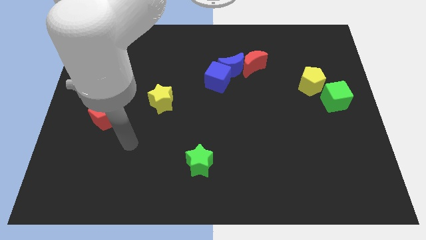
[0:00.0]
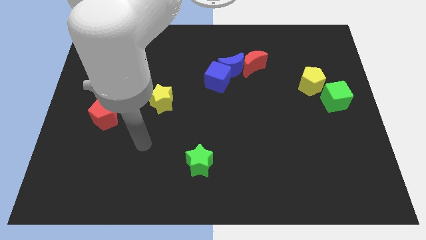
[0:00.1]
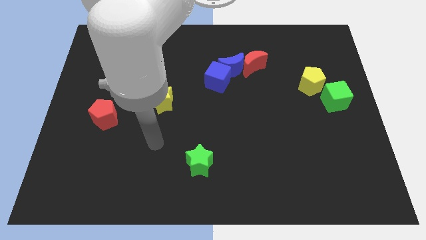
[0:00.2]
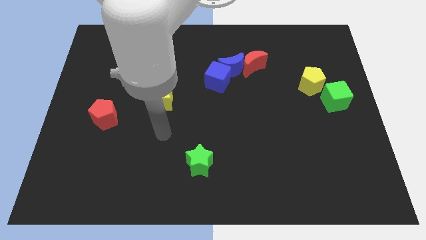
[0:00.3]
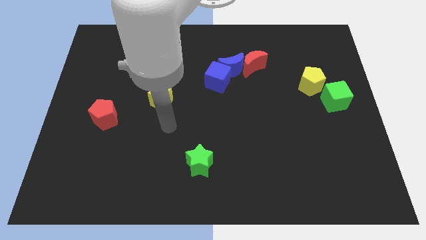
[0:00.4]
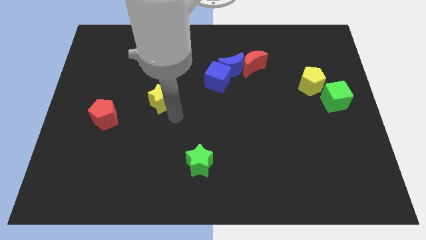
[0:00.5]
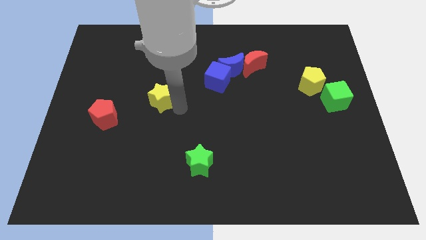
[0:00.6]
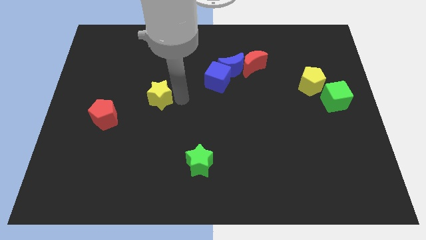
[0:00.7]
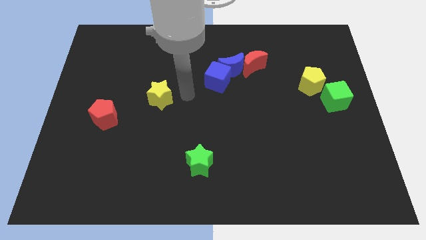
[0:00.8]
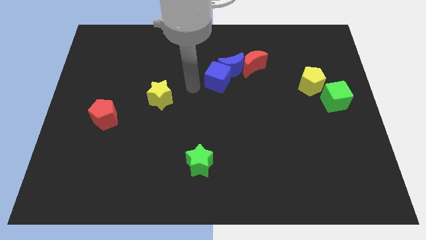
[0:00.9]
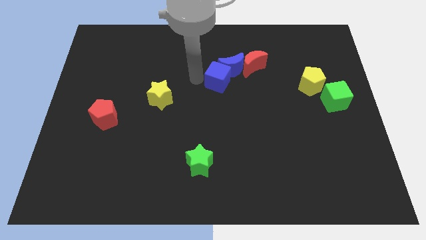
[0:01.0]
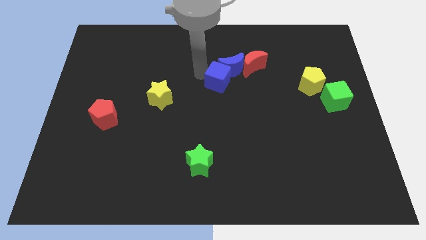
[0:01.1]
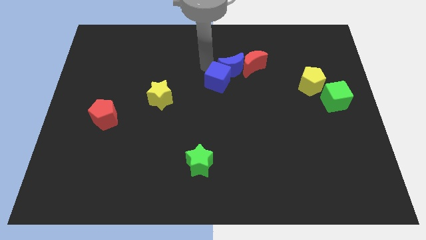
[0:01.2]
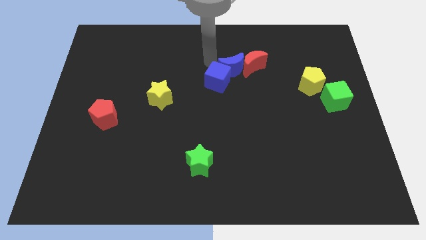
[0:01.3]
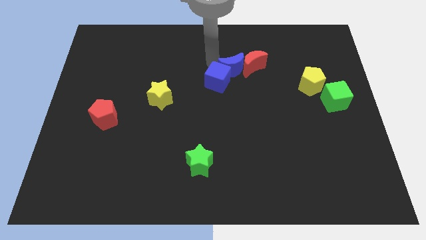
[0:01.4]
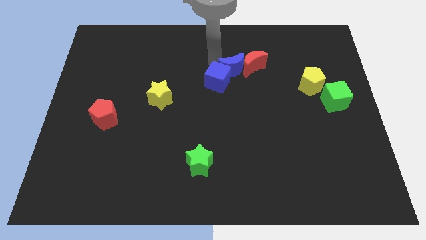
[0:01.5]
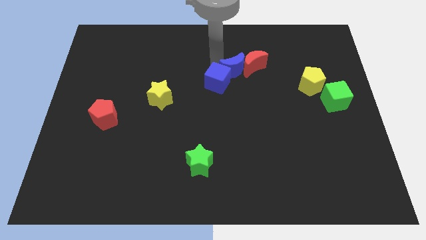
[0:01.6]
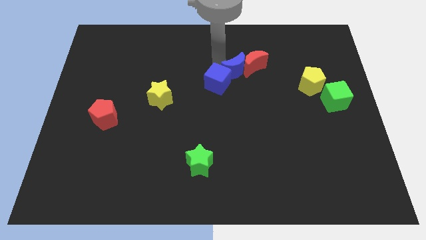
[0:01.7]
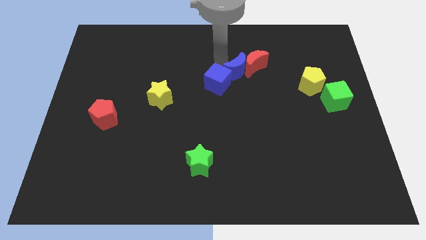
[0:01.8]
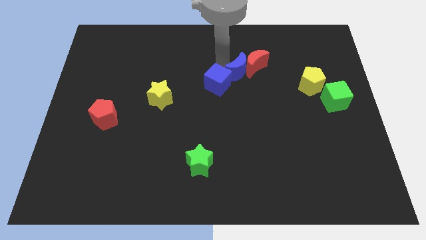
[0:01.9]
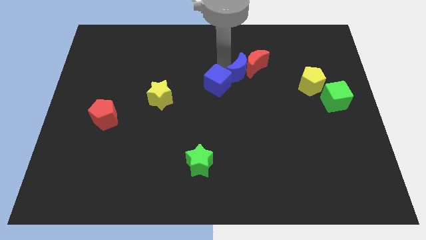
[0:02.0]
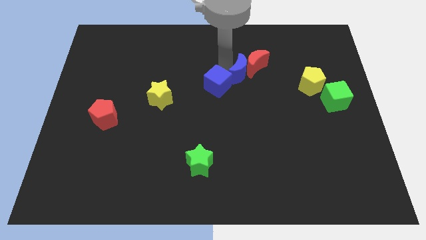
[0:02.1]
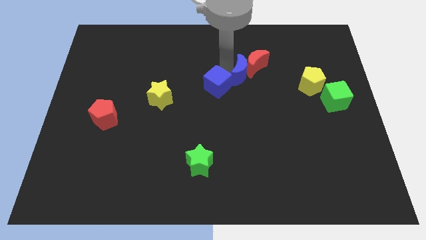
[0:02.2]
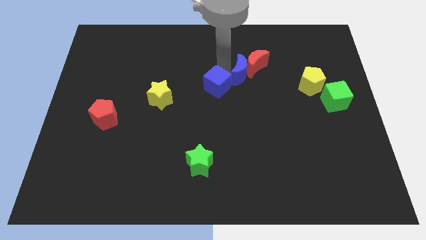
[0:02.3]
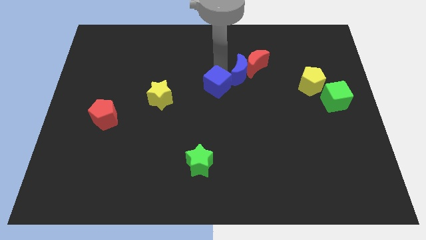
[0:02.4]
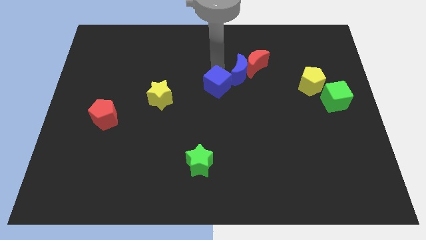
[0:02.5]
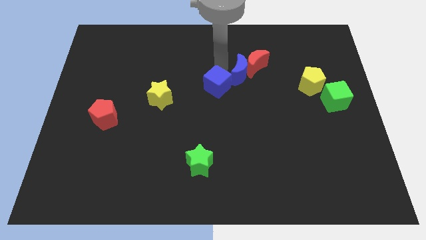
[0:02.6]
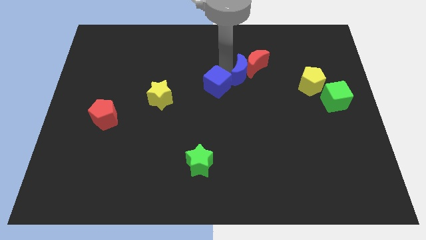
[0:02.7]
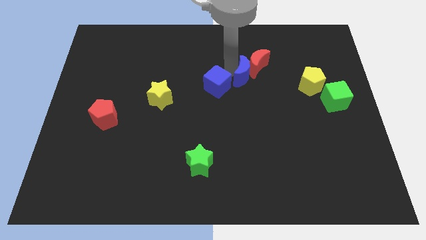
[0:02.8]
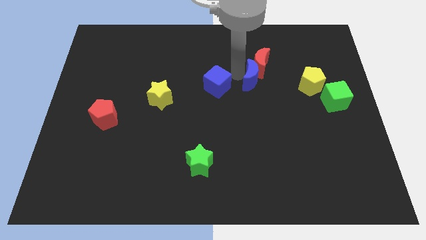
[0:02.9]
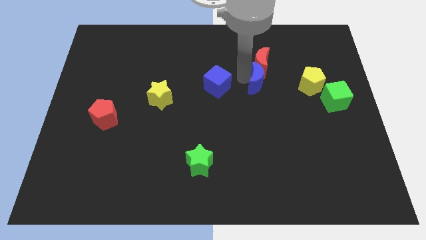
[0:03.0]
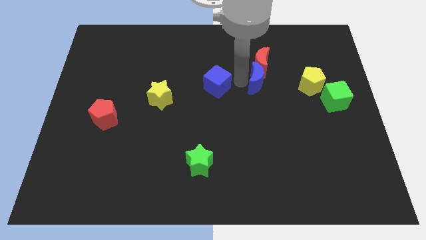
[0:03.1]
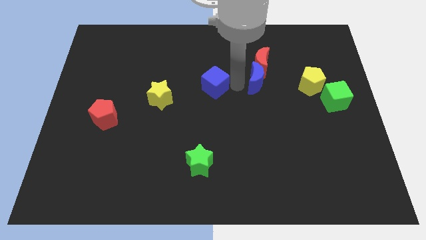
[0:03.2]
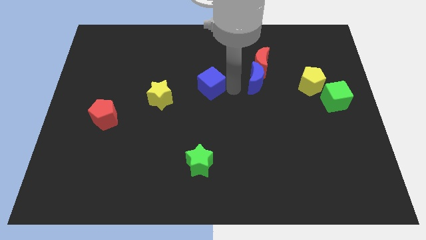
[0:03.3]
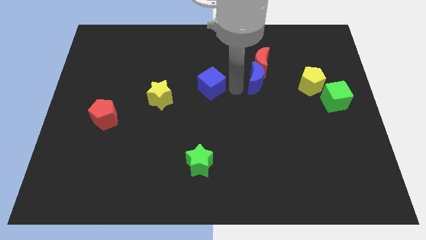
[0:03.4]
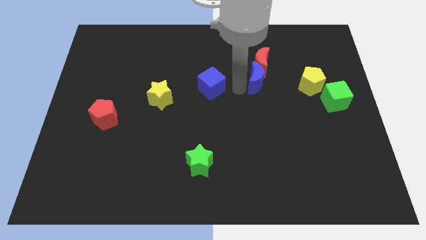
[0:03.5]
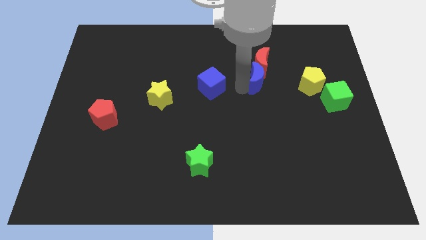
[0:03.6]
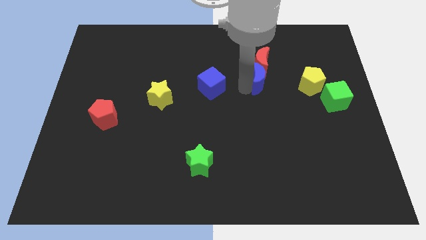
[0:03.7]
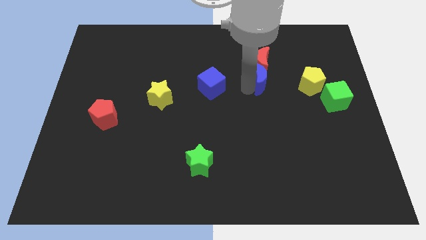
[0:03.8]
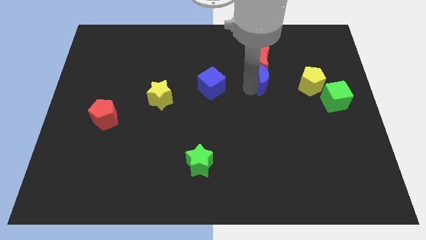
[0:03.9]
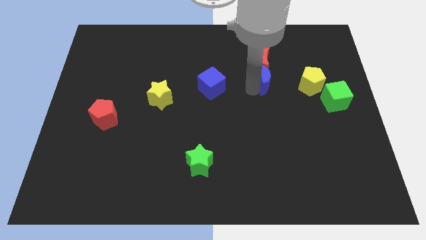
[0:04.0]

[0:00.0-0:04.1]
push the blue moon right a bit

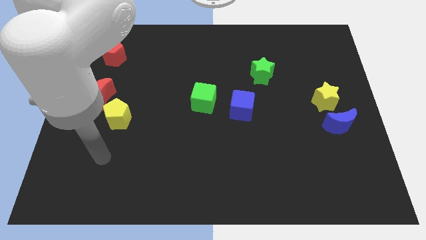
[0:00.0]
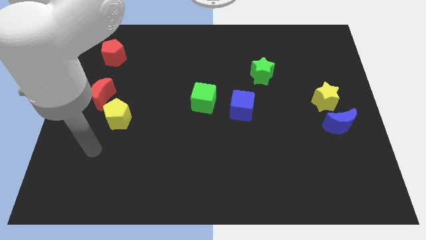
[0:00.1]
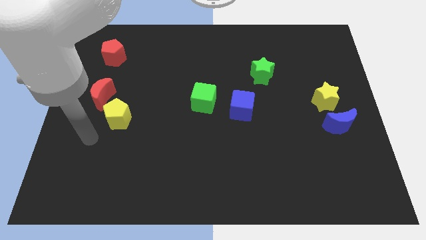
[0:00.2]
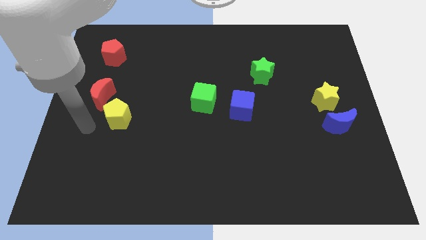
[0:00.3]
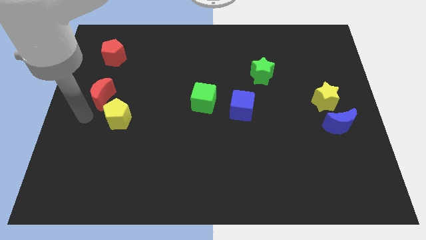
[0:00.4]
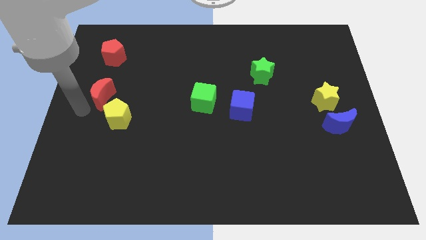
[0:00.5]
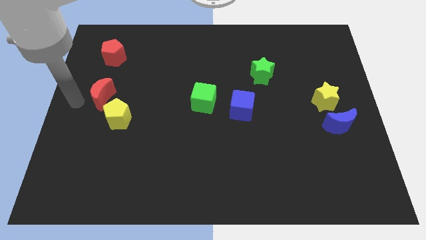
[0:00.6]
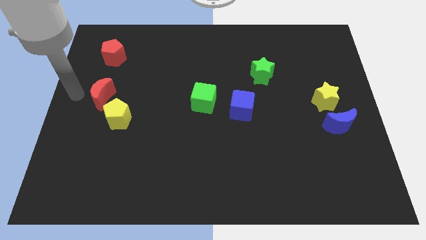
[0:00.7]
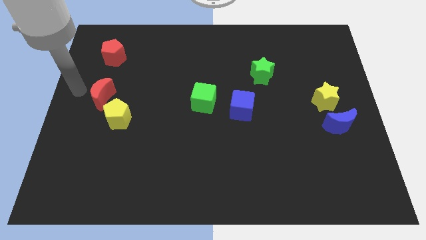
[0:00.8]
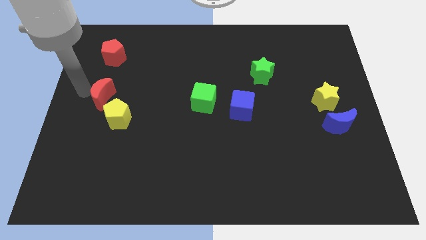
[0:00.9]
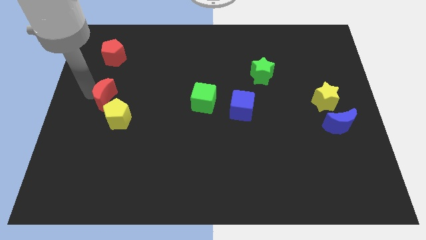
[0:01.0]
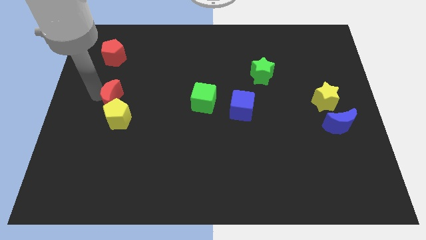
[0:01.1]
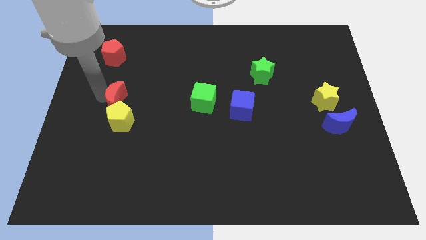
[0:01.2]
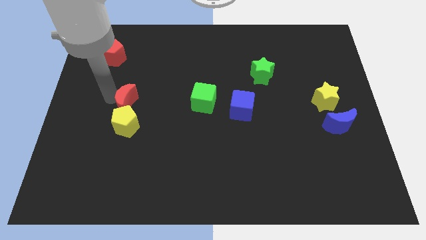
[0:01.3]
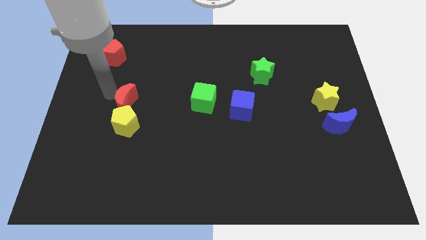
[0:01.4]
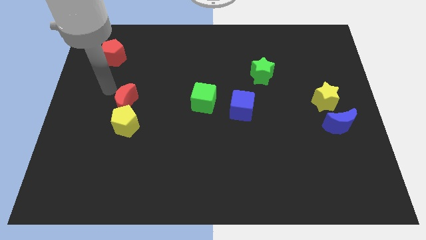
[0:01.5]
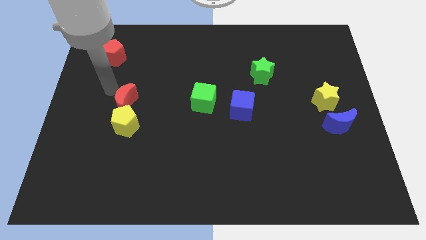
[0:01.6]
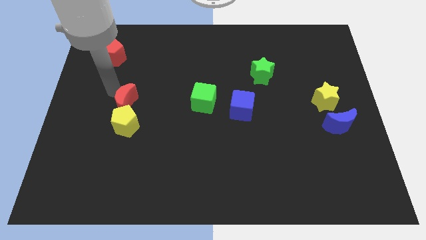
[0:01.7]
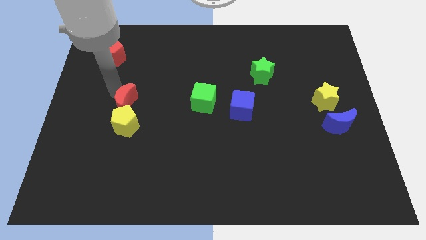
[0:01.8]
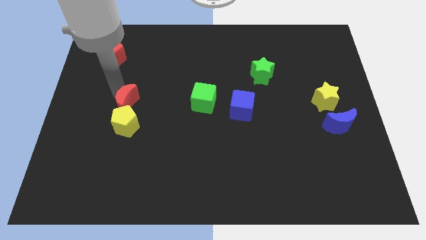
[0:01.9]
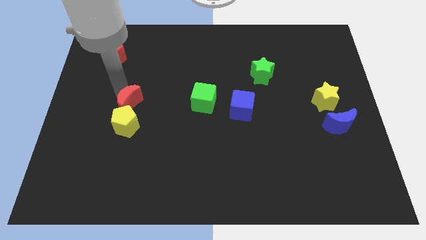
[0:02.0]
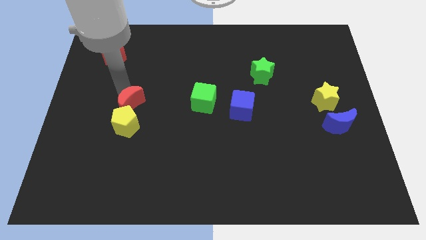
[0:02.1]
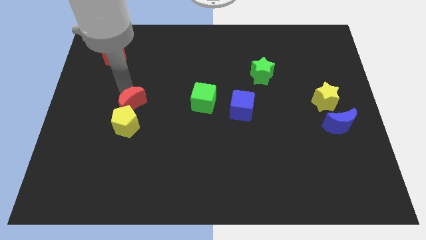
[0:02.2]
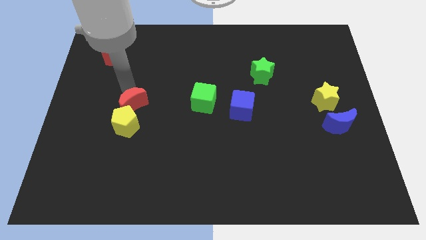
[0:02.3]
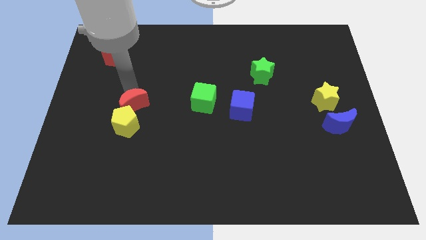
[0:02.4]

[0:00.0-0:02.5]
slightly move the red moon down and right

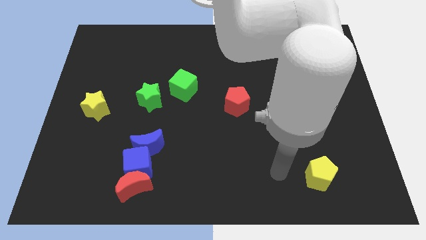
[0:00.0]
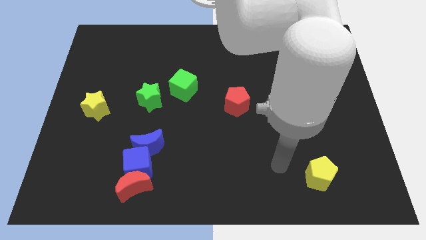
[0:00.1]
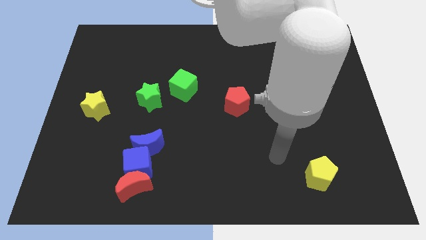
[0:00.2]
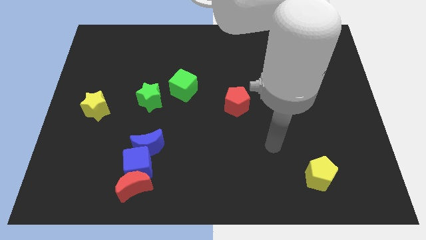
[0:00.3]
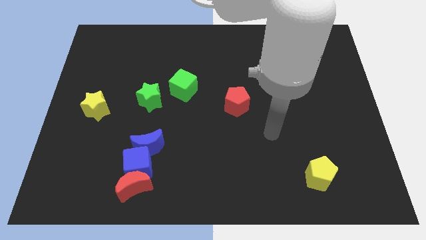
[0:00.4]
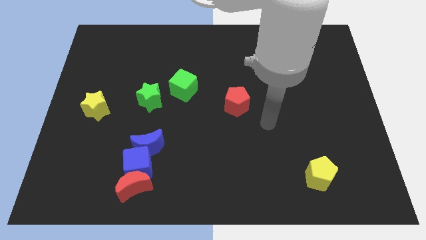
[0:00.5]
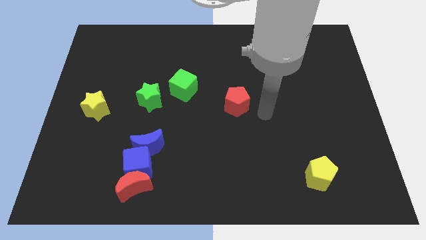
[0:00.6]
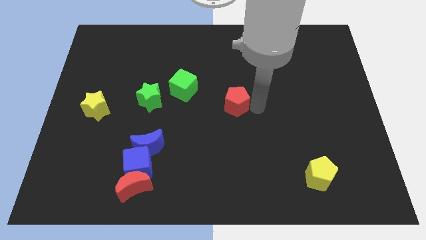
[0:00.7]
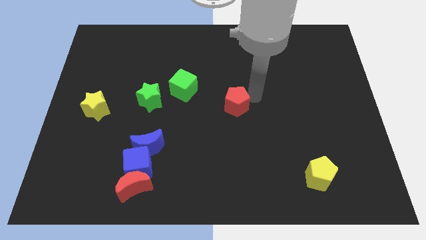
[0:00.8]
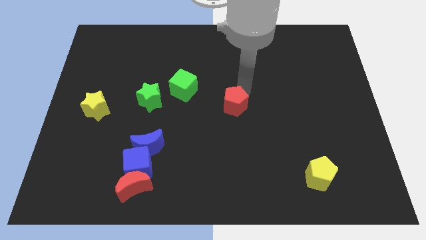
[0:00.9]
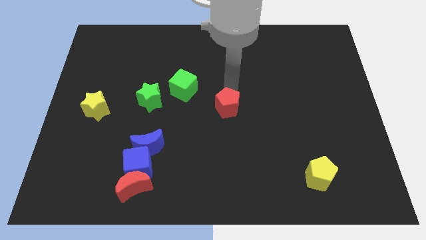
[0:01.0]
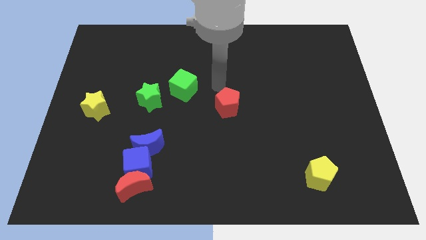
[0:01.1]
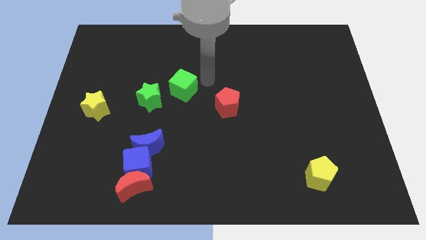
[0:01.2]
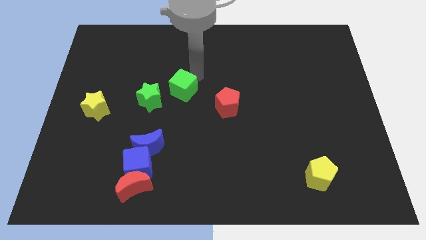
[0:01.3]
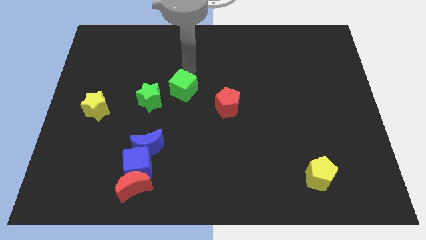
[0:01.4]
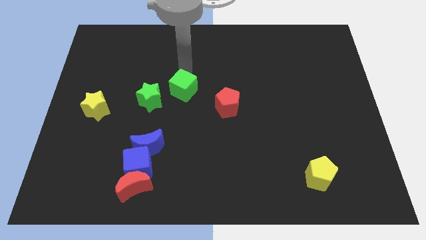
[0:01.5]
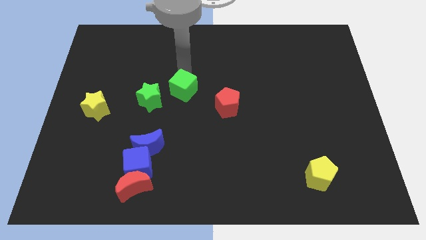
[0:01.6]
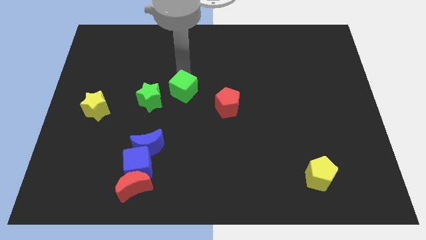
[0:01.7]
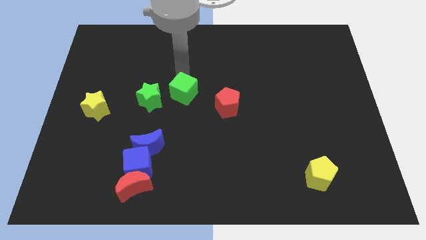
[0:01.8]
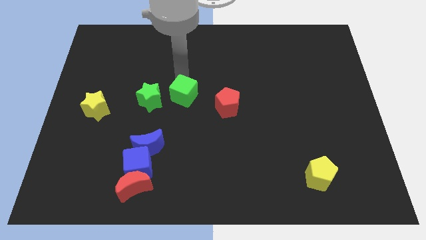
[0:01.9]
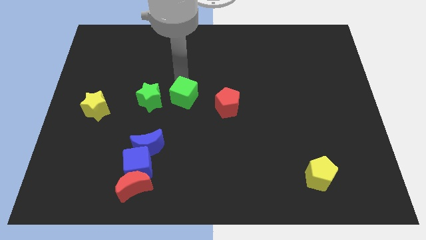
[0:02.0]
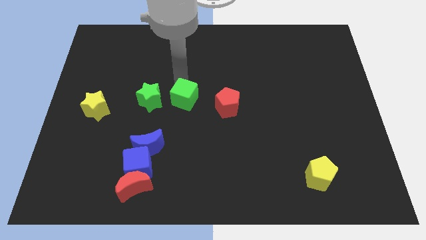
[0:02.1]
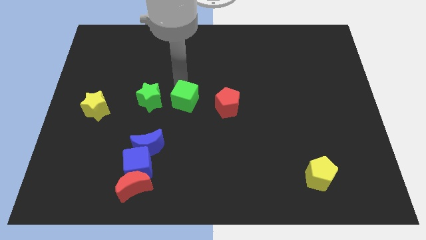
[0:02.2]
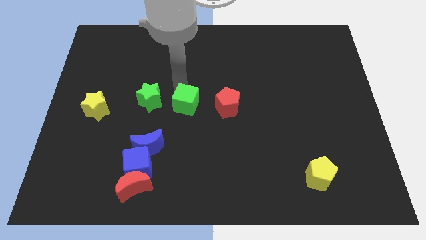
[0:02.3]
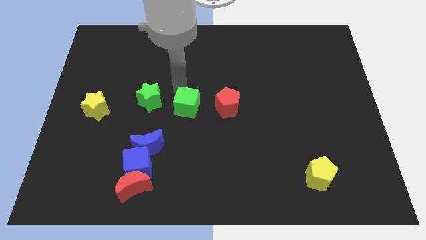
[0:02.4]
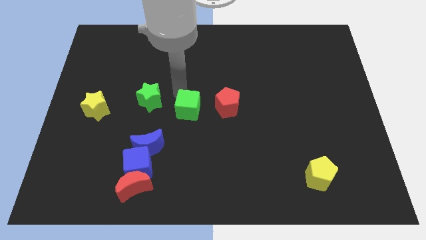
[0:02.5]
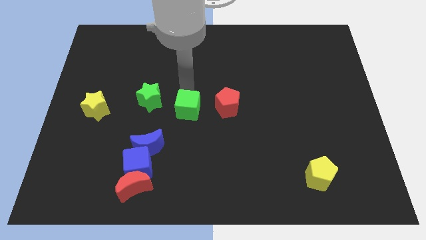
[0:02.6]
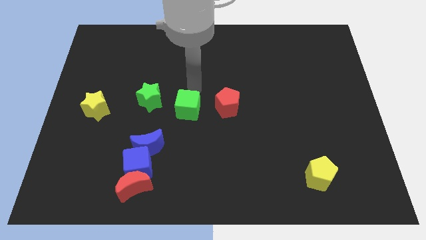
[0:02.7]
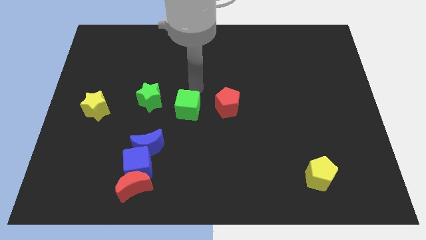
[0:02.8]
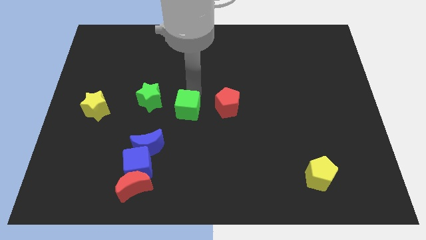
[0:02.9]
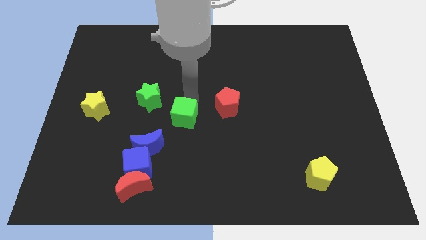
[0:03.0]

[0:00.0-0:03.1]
slightly slide the green cube down
